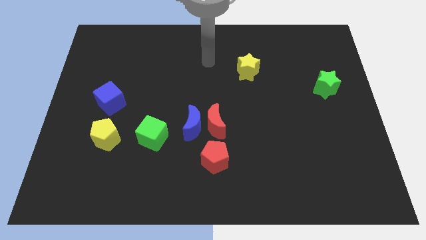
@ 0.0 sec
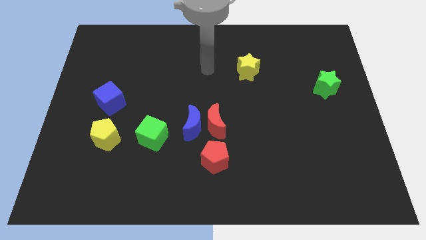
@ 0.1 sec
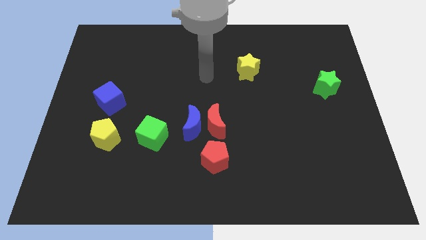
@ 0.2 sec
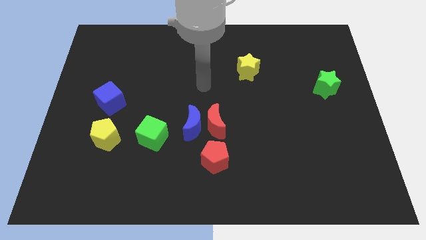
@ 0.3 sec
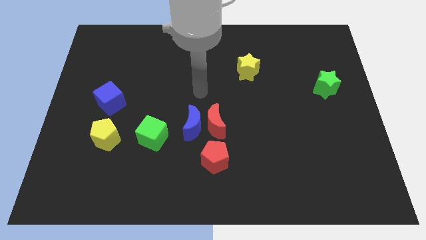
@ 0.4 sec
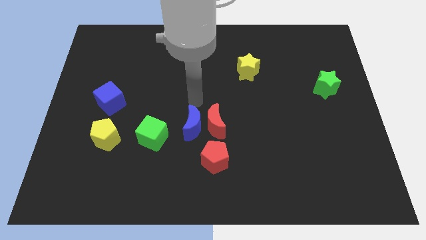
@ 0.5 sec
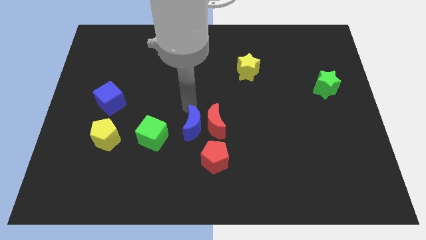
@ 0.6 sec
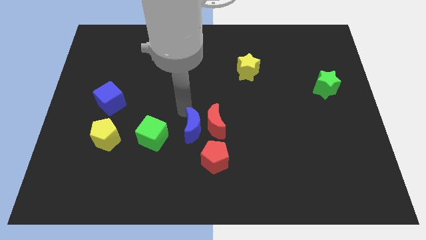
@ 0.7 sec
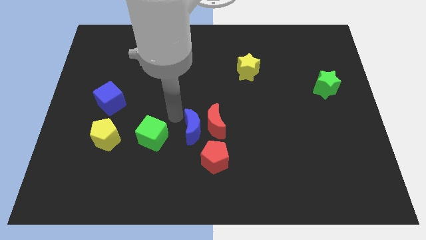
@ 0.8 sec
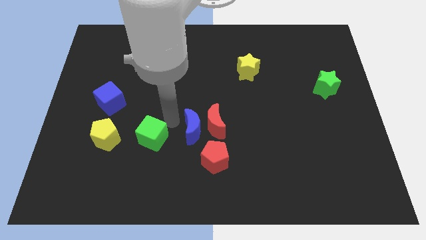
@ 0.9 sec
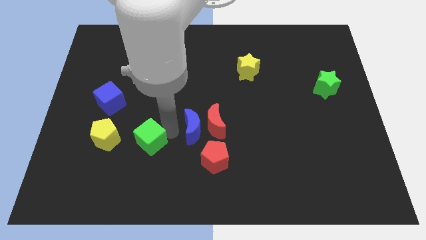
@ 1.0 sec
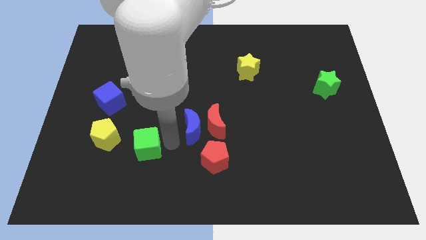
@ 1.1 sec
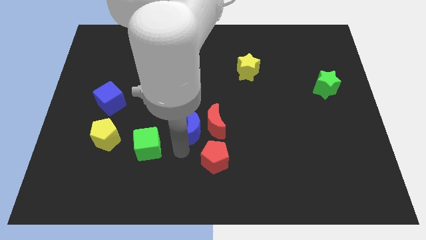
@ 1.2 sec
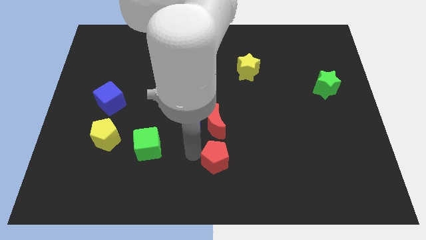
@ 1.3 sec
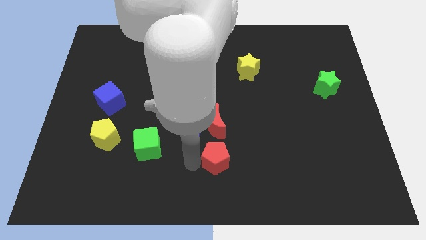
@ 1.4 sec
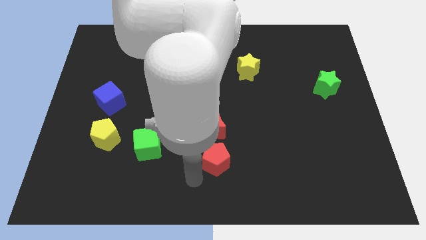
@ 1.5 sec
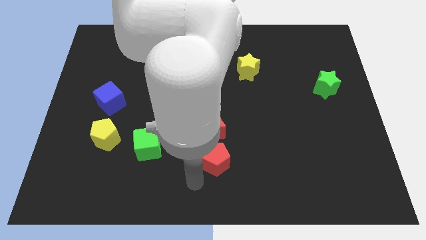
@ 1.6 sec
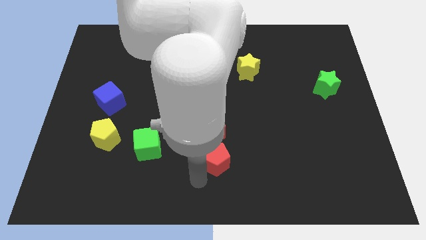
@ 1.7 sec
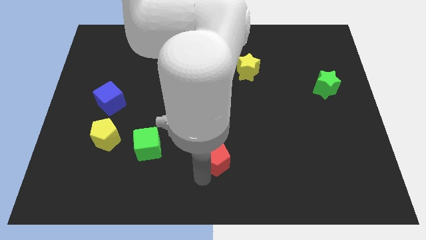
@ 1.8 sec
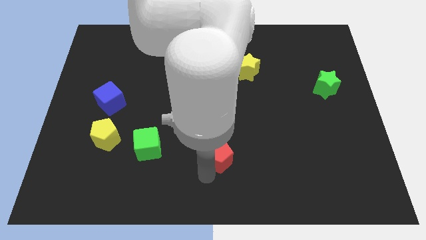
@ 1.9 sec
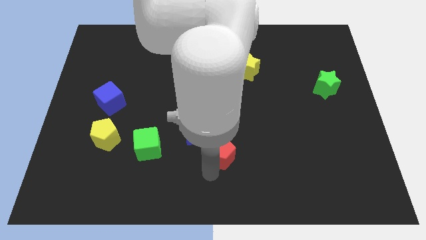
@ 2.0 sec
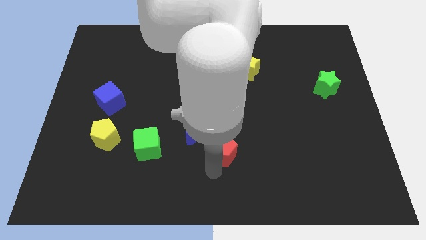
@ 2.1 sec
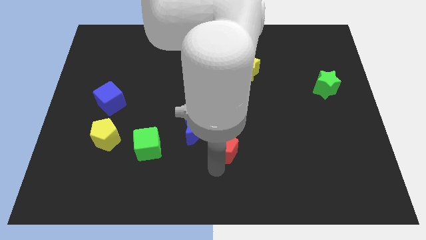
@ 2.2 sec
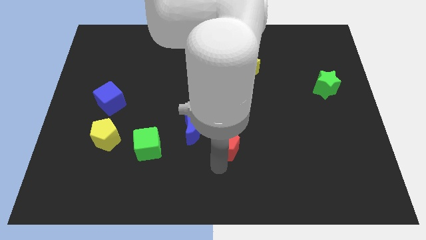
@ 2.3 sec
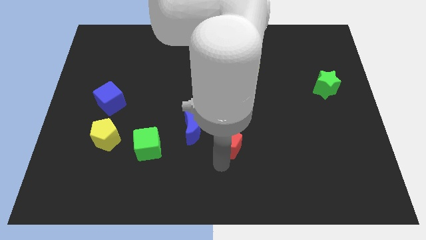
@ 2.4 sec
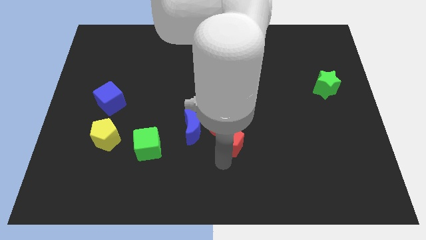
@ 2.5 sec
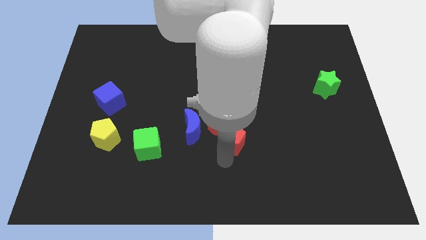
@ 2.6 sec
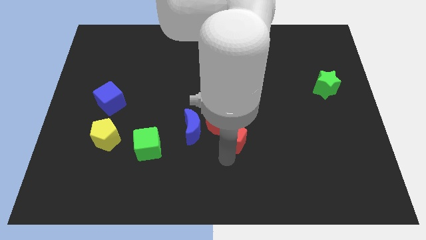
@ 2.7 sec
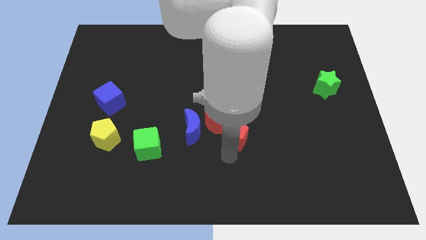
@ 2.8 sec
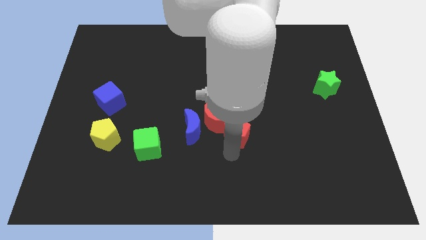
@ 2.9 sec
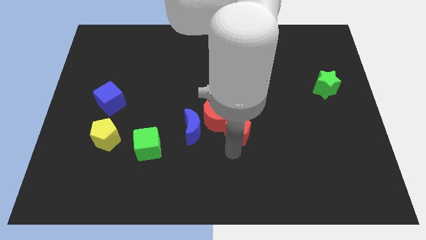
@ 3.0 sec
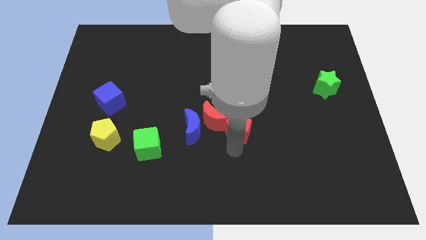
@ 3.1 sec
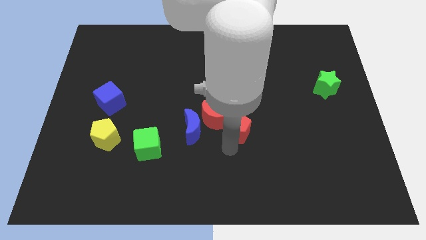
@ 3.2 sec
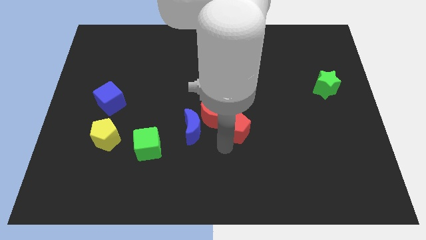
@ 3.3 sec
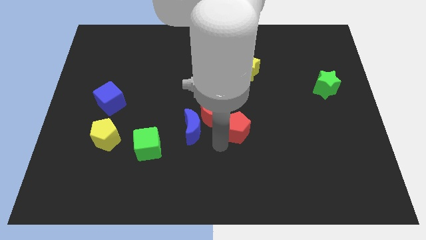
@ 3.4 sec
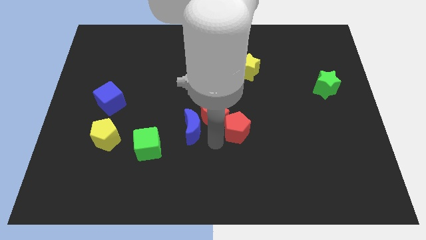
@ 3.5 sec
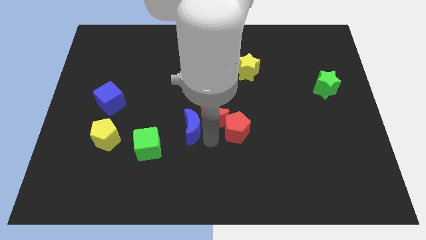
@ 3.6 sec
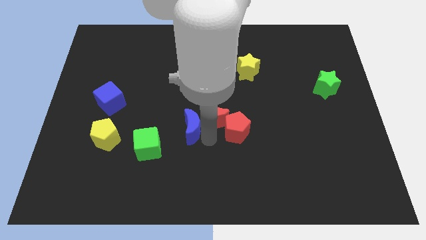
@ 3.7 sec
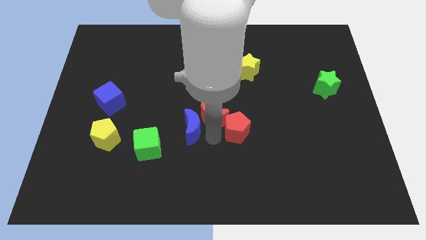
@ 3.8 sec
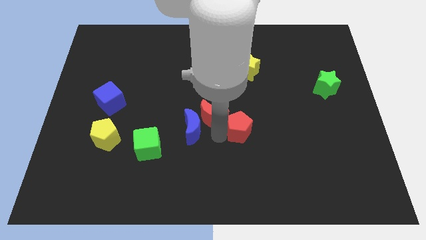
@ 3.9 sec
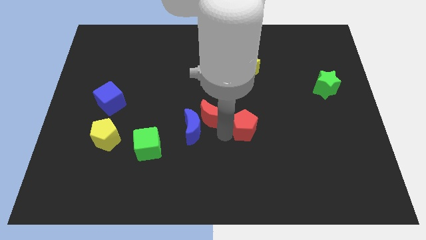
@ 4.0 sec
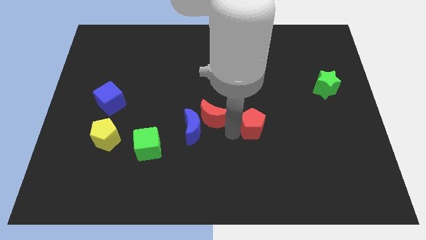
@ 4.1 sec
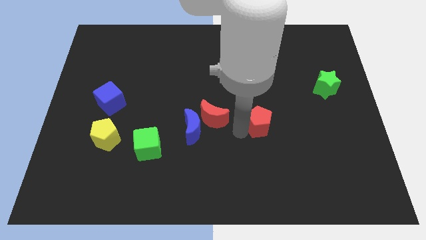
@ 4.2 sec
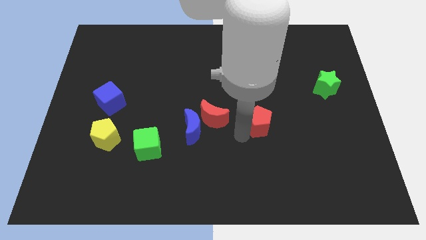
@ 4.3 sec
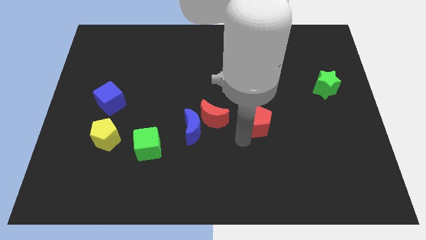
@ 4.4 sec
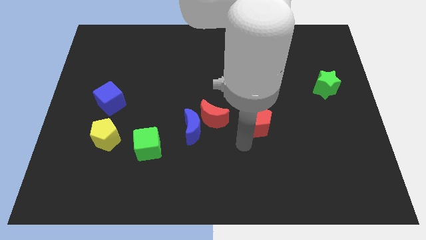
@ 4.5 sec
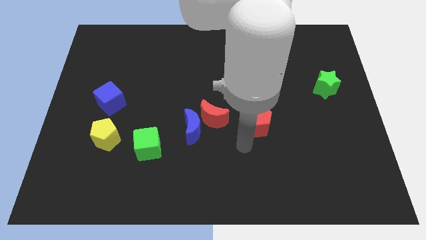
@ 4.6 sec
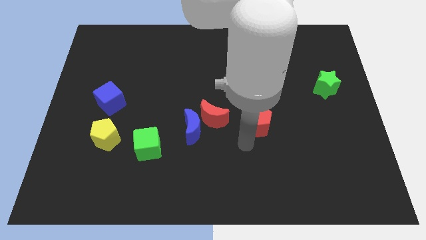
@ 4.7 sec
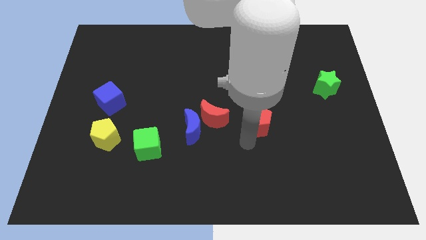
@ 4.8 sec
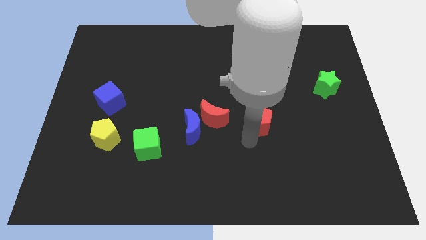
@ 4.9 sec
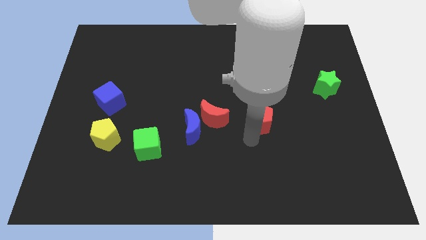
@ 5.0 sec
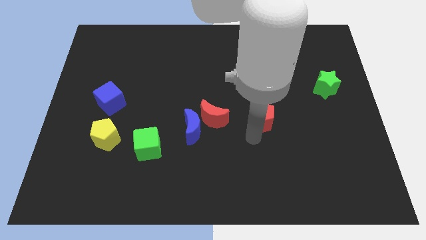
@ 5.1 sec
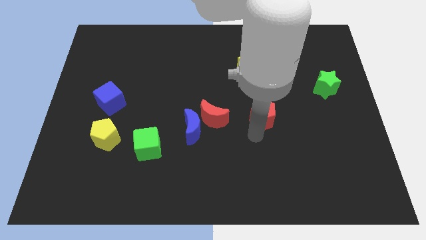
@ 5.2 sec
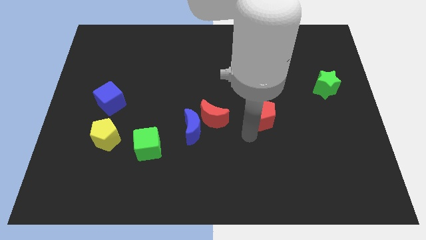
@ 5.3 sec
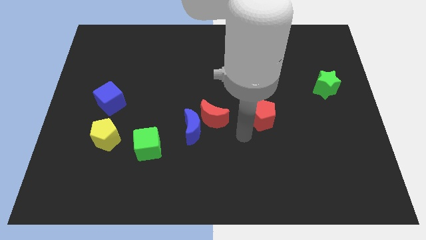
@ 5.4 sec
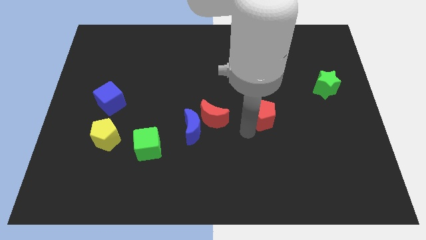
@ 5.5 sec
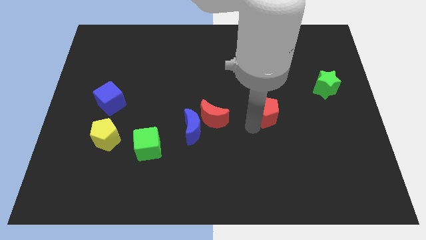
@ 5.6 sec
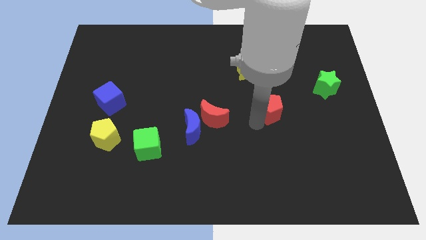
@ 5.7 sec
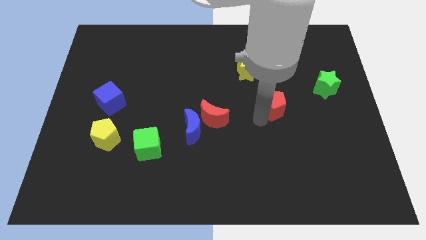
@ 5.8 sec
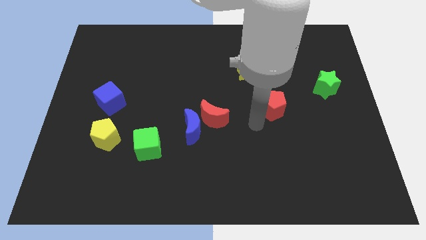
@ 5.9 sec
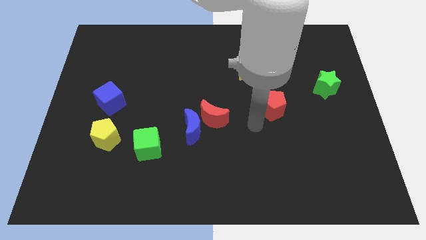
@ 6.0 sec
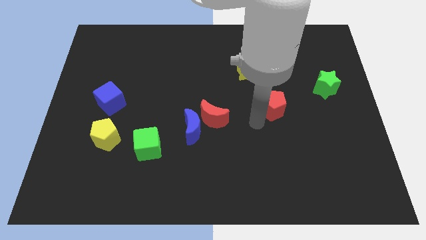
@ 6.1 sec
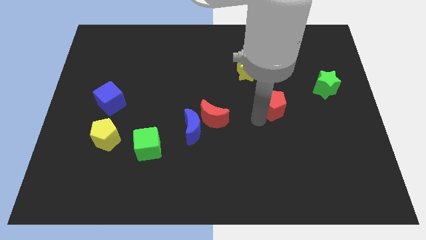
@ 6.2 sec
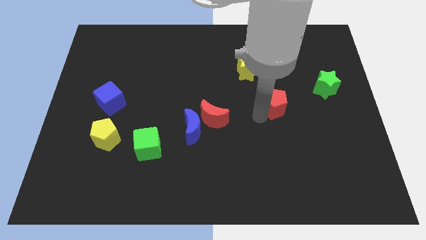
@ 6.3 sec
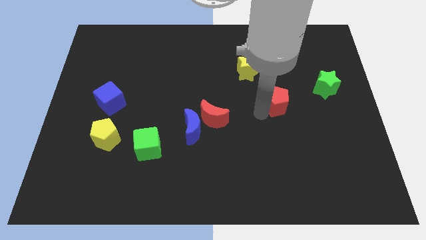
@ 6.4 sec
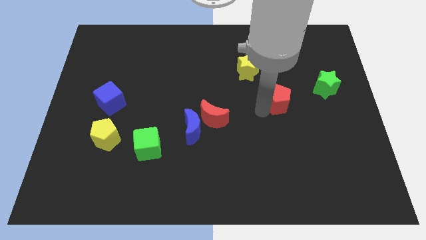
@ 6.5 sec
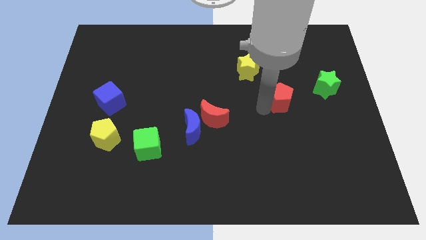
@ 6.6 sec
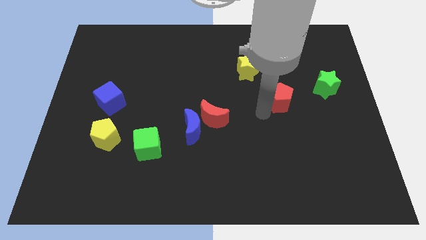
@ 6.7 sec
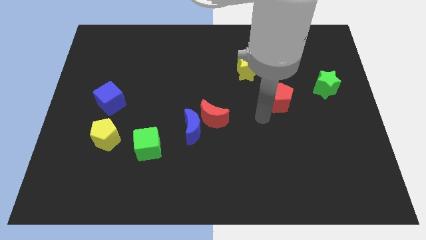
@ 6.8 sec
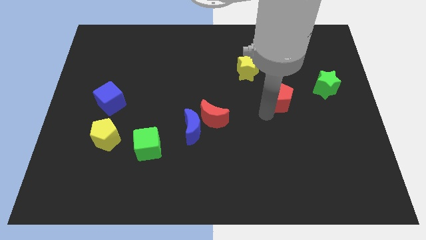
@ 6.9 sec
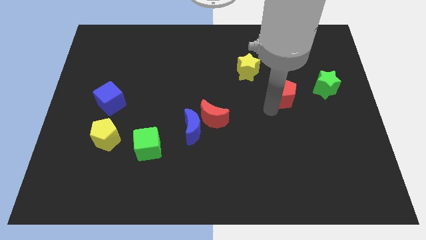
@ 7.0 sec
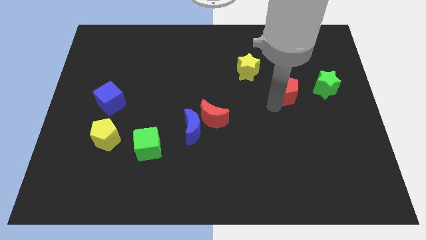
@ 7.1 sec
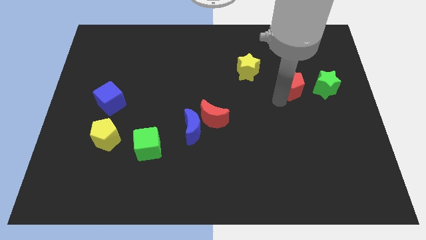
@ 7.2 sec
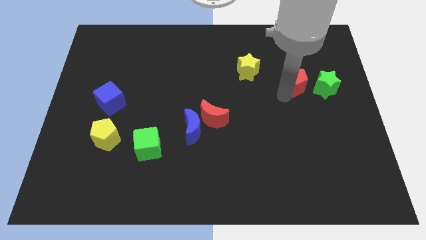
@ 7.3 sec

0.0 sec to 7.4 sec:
put the red pentagon to the top left of the green star

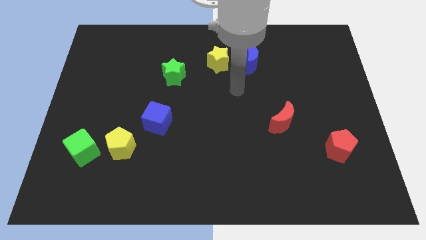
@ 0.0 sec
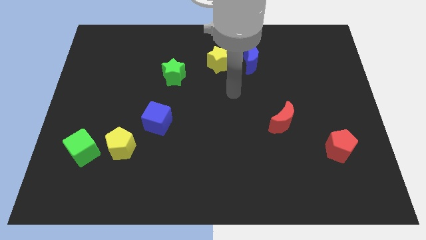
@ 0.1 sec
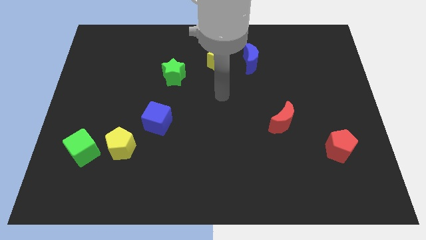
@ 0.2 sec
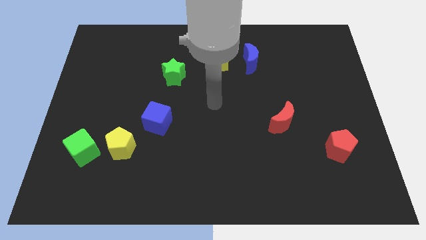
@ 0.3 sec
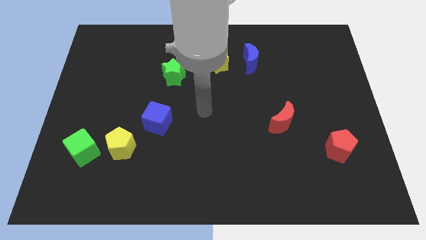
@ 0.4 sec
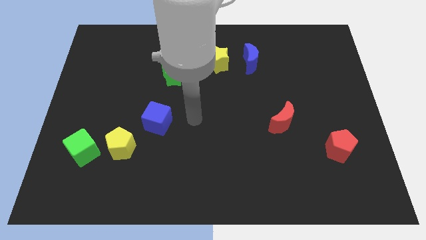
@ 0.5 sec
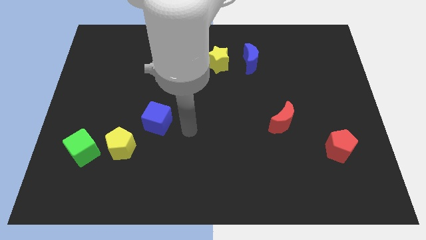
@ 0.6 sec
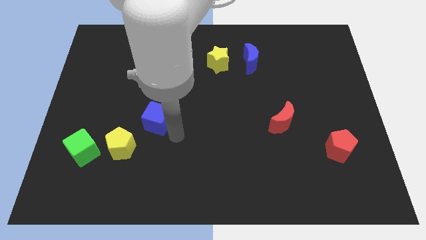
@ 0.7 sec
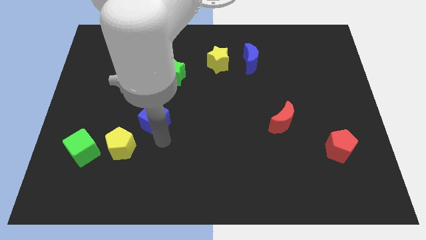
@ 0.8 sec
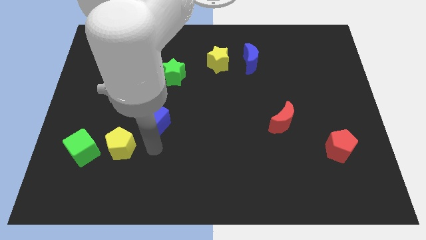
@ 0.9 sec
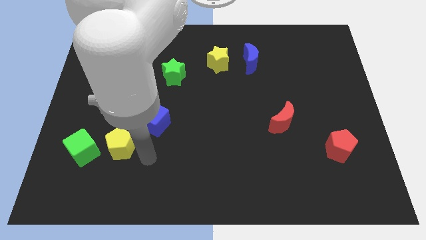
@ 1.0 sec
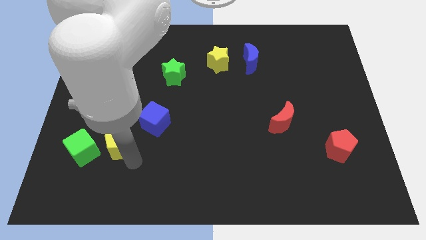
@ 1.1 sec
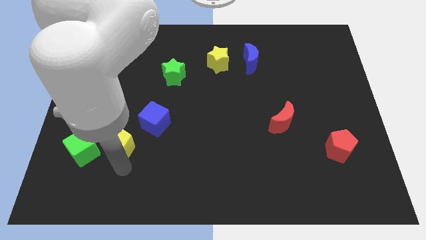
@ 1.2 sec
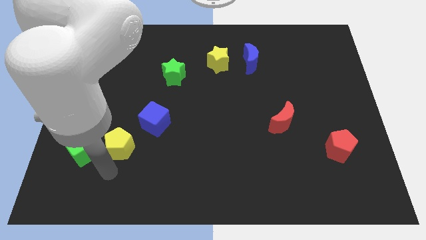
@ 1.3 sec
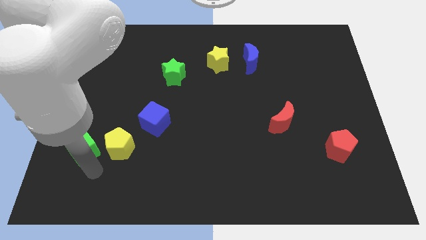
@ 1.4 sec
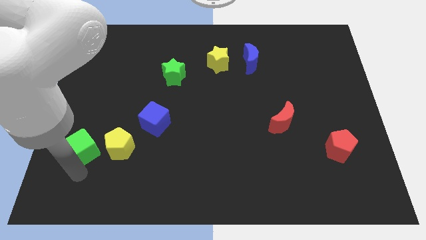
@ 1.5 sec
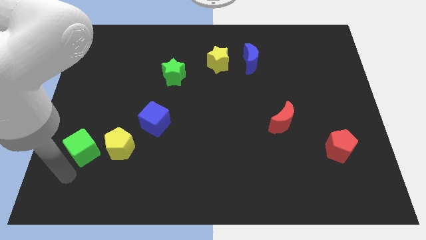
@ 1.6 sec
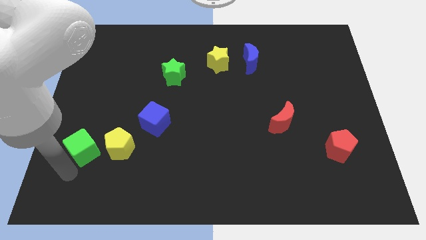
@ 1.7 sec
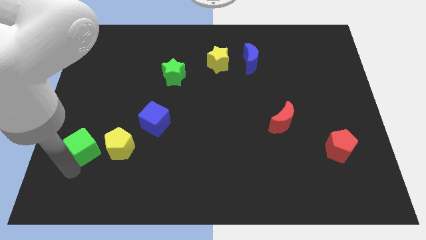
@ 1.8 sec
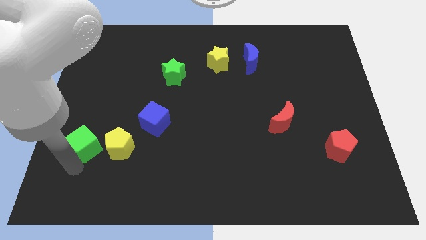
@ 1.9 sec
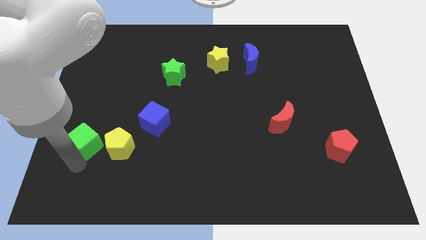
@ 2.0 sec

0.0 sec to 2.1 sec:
slide the green cube diagonally up and to the left of the yellow pentagon
